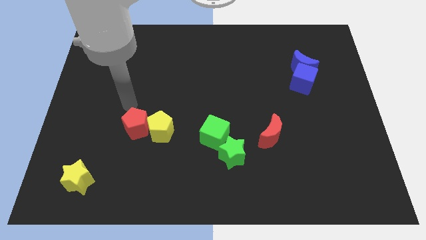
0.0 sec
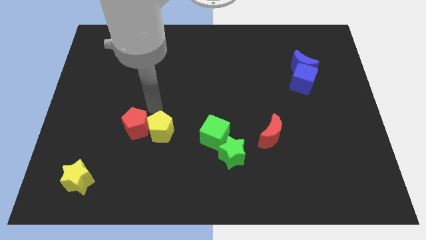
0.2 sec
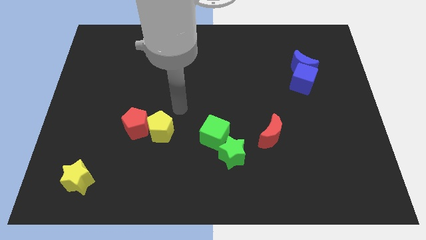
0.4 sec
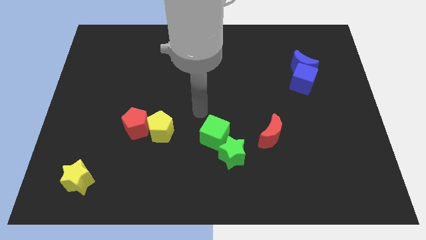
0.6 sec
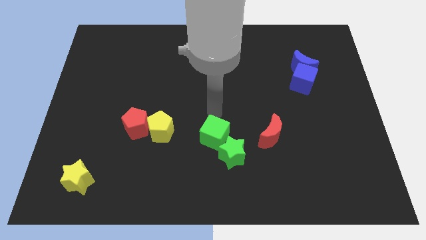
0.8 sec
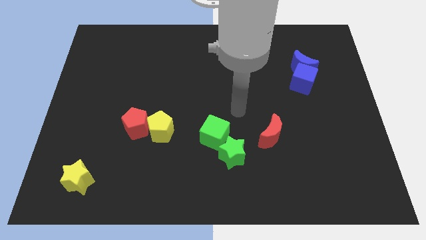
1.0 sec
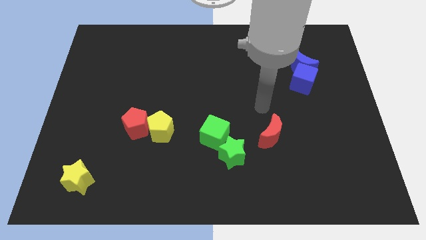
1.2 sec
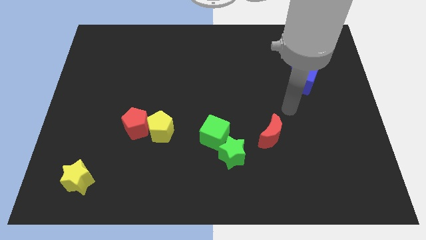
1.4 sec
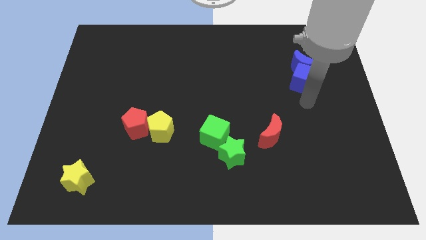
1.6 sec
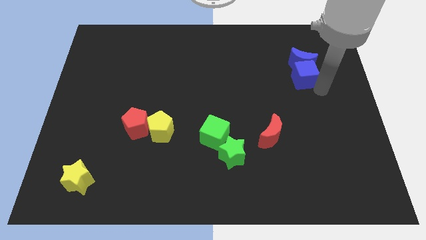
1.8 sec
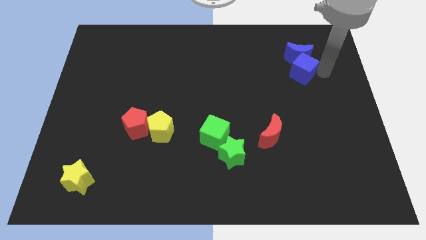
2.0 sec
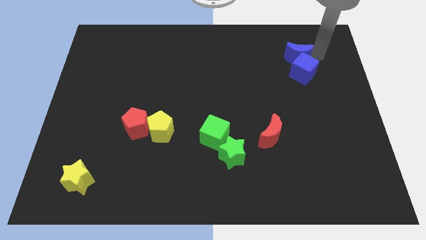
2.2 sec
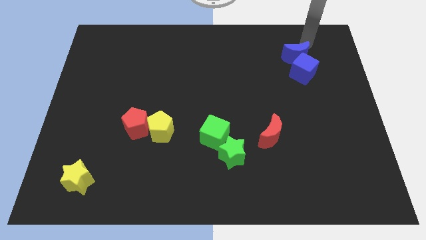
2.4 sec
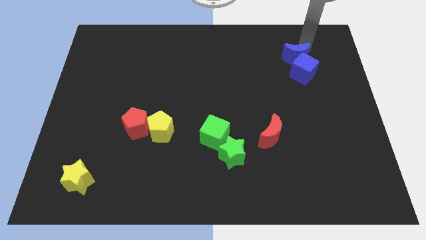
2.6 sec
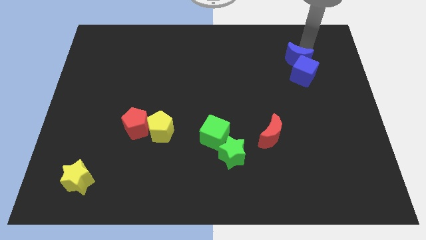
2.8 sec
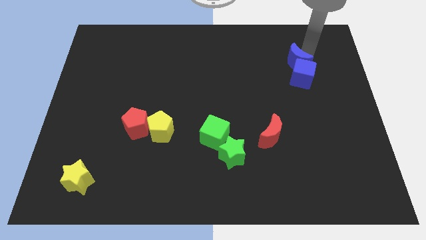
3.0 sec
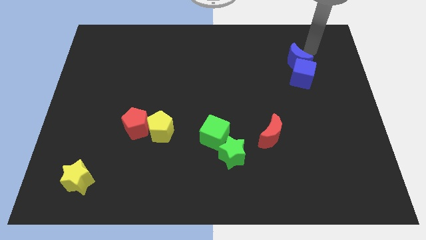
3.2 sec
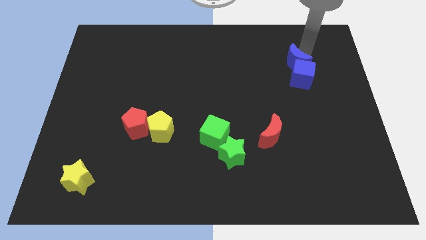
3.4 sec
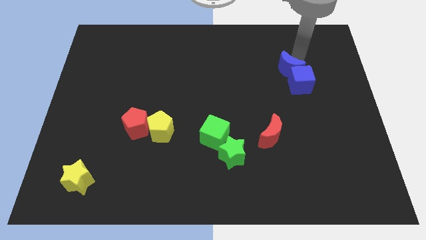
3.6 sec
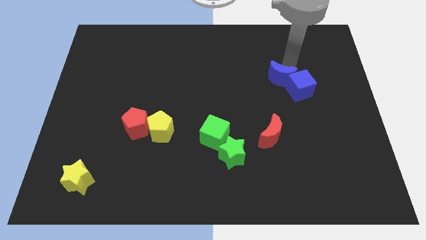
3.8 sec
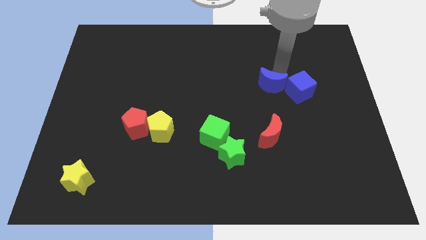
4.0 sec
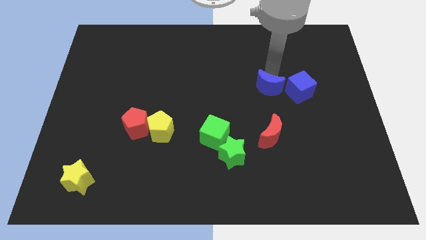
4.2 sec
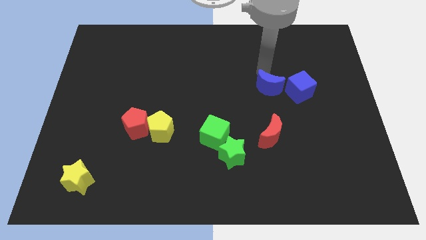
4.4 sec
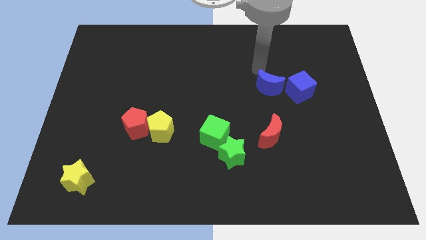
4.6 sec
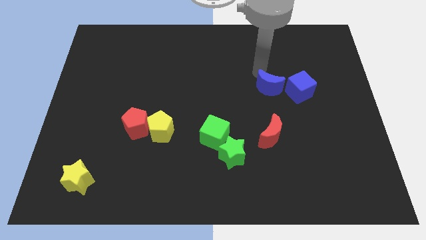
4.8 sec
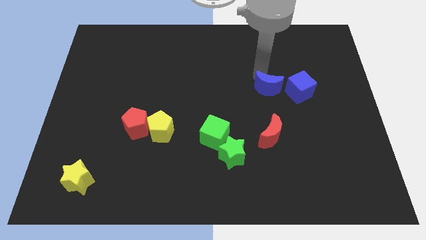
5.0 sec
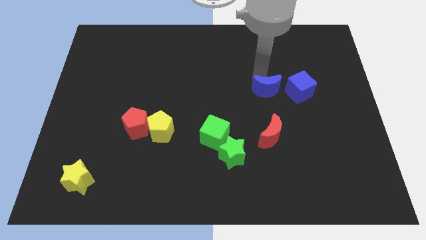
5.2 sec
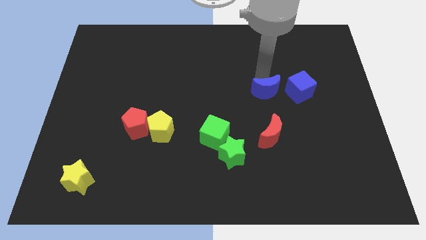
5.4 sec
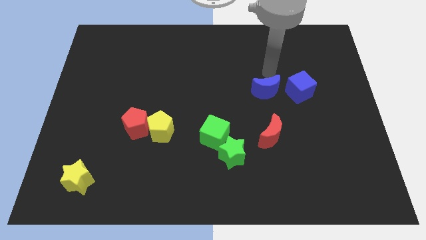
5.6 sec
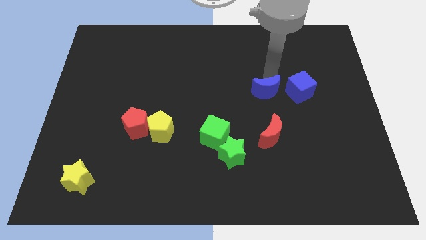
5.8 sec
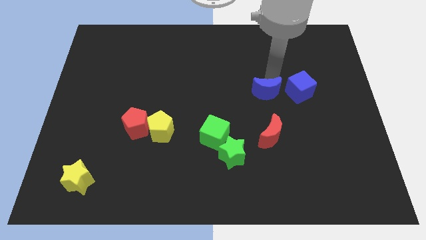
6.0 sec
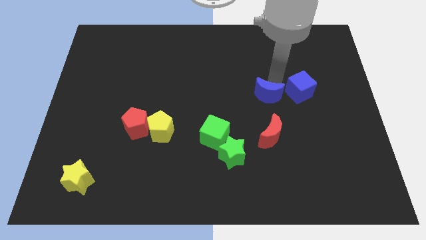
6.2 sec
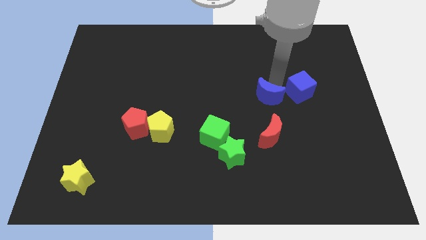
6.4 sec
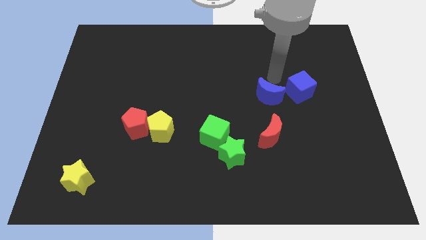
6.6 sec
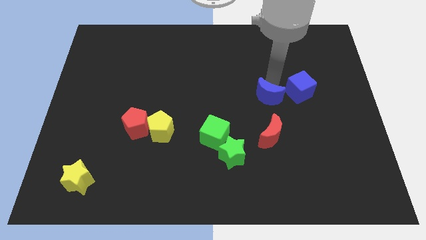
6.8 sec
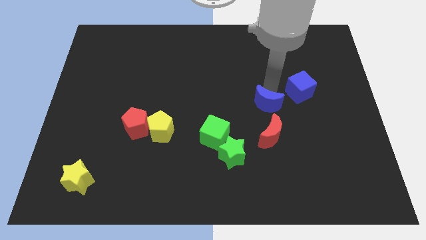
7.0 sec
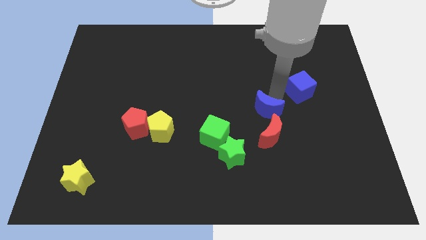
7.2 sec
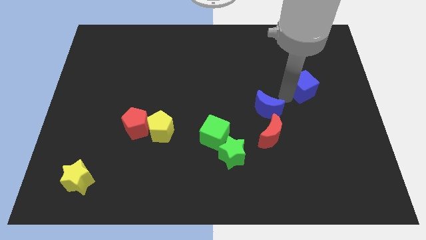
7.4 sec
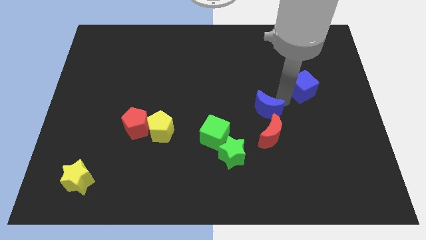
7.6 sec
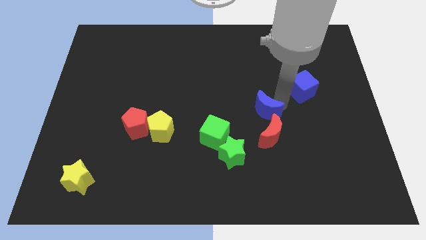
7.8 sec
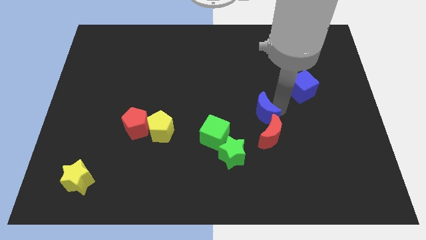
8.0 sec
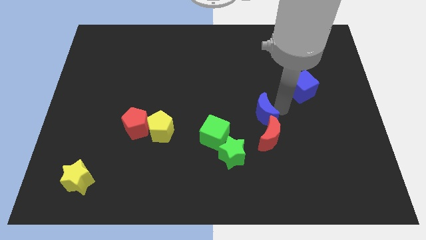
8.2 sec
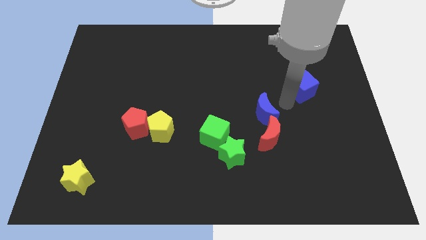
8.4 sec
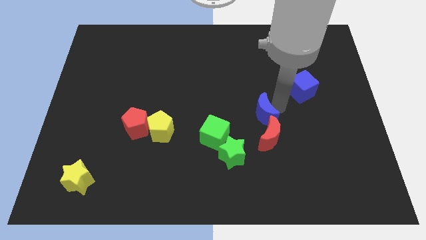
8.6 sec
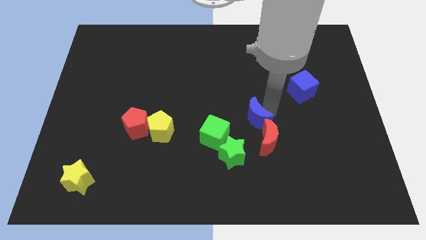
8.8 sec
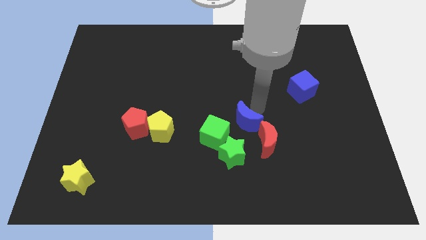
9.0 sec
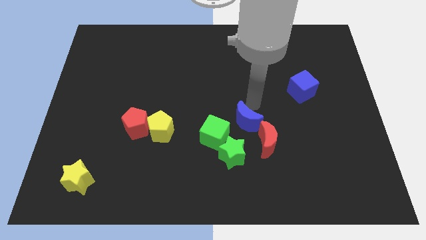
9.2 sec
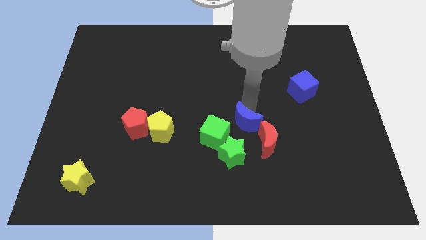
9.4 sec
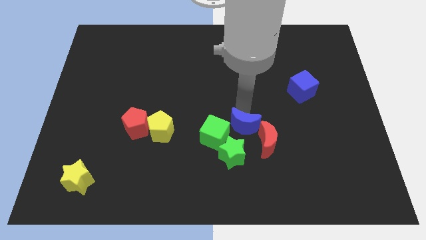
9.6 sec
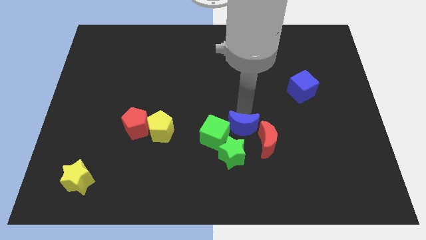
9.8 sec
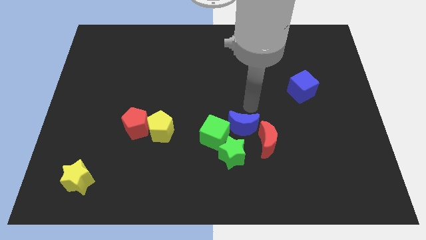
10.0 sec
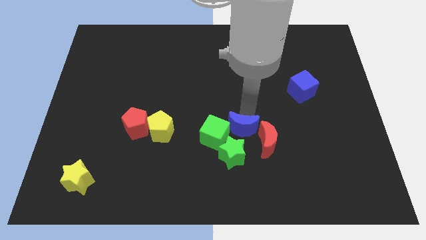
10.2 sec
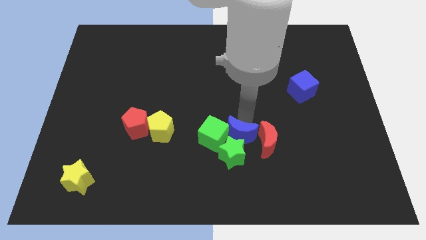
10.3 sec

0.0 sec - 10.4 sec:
put the blue moon to the green star

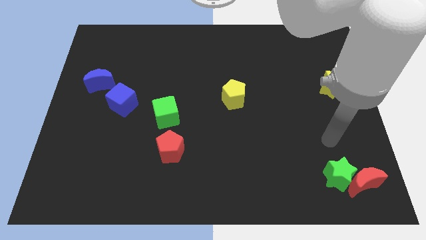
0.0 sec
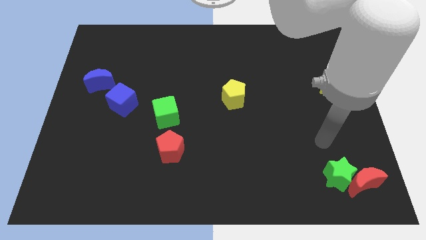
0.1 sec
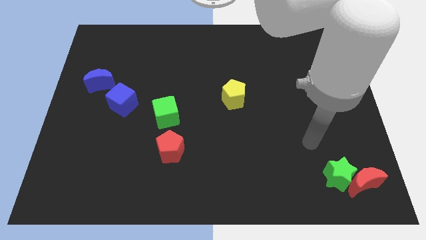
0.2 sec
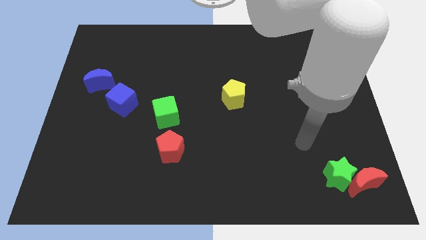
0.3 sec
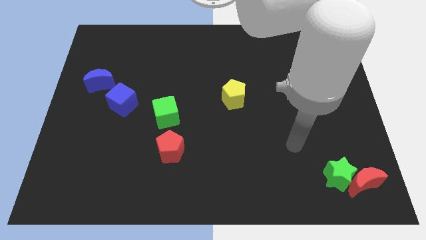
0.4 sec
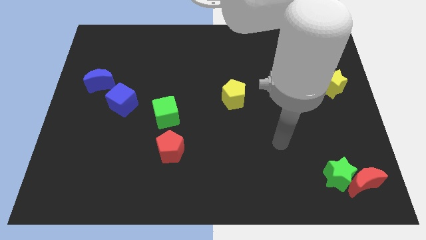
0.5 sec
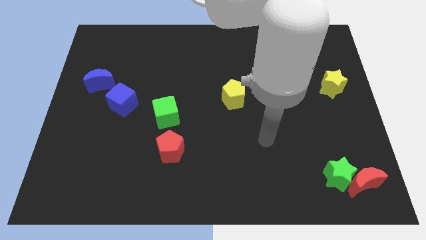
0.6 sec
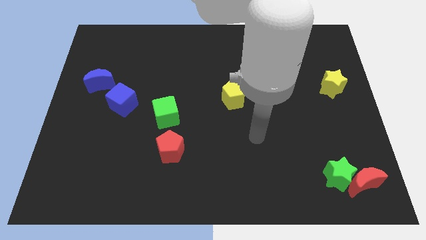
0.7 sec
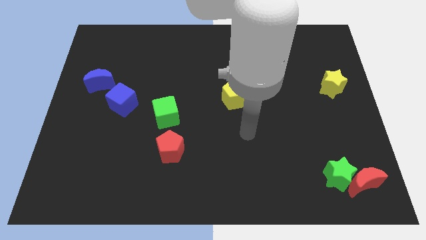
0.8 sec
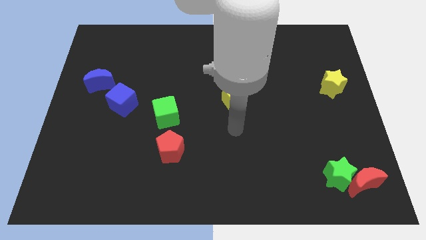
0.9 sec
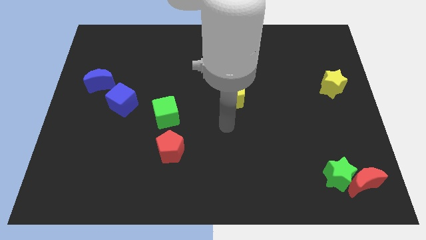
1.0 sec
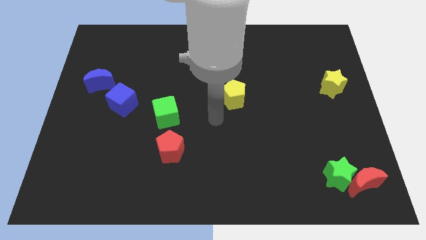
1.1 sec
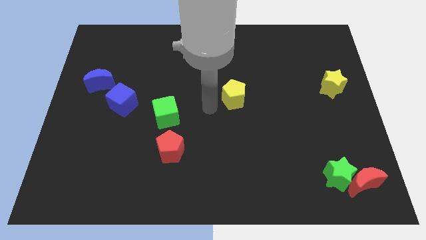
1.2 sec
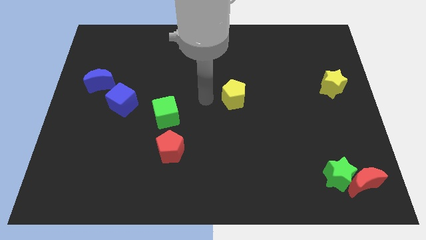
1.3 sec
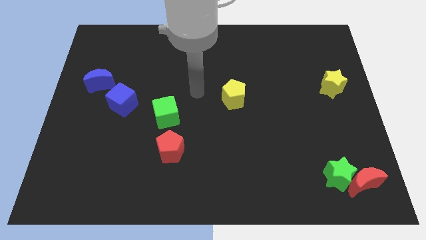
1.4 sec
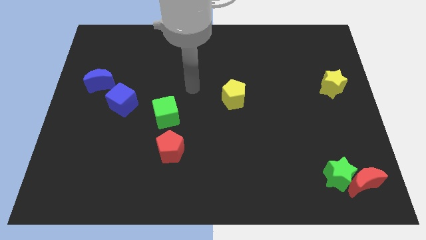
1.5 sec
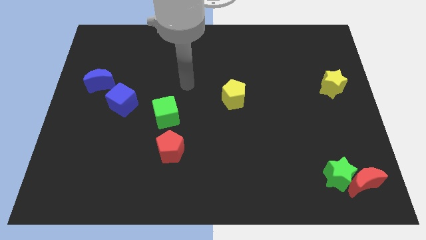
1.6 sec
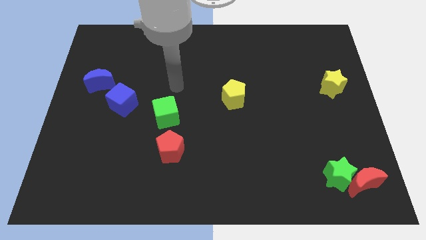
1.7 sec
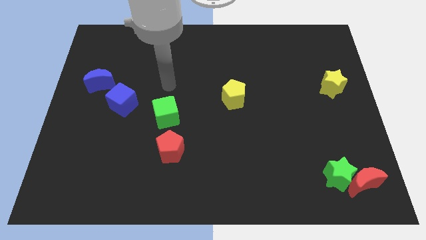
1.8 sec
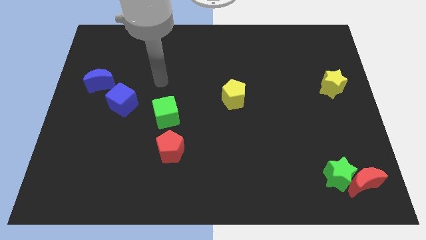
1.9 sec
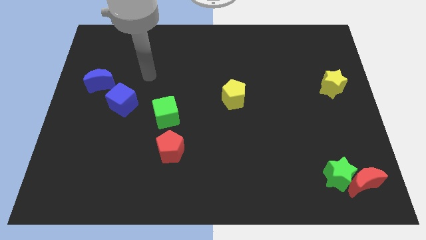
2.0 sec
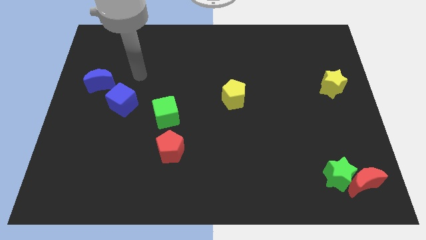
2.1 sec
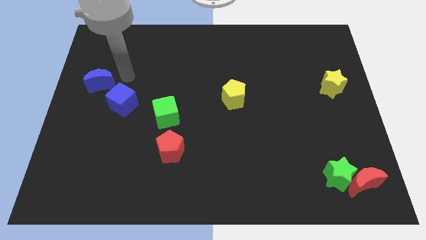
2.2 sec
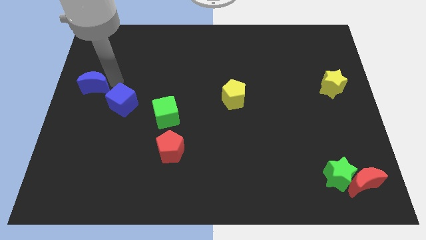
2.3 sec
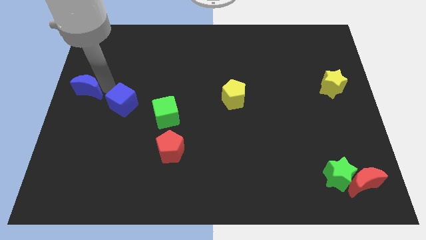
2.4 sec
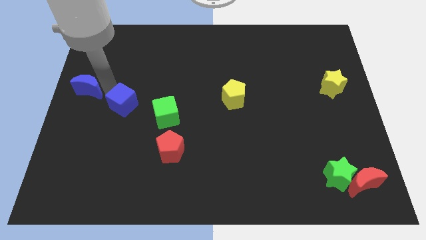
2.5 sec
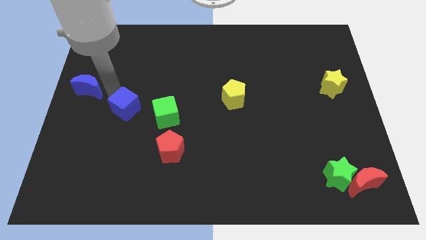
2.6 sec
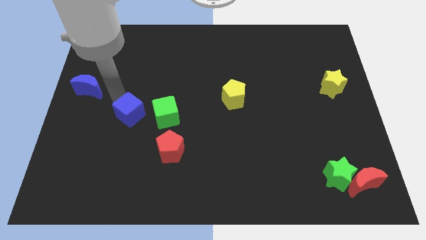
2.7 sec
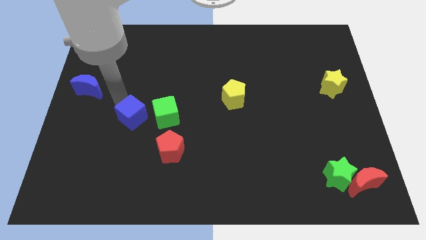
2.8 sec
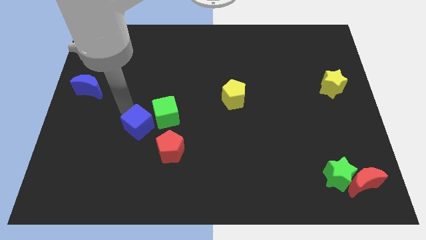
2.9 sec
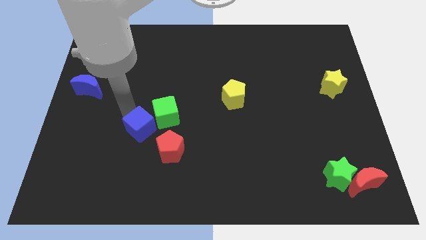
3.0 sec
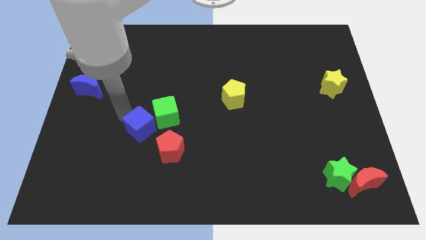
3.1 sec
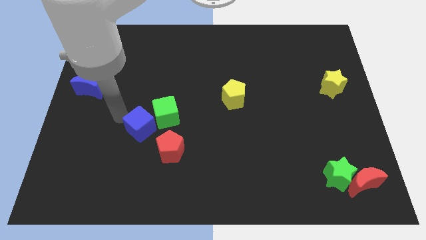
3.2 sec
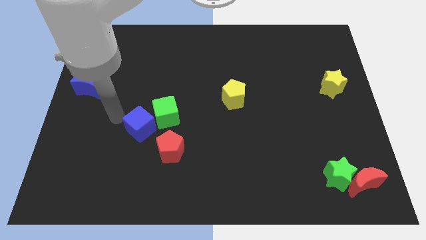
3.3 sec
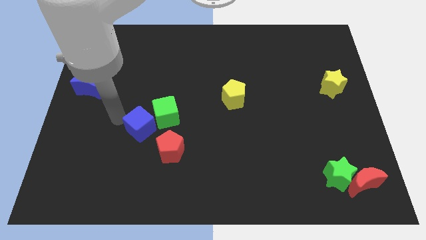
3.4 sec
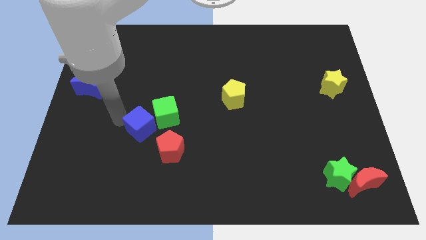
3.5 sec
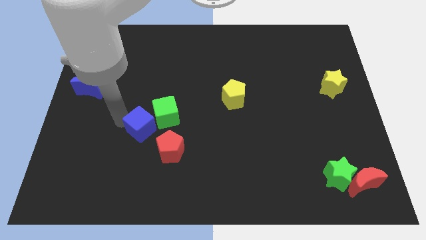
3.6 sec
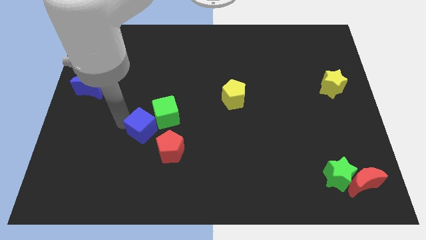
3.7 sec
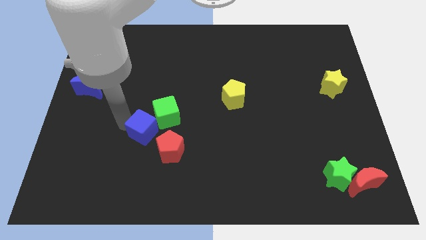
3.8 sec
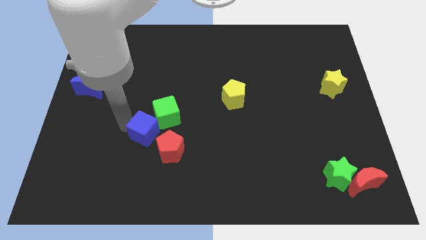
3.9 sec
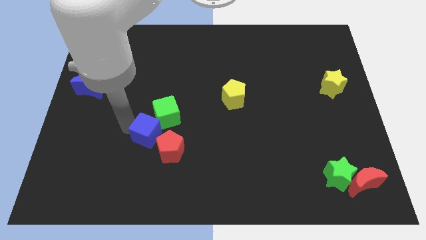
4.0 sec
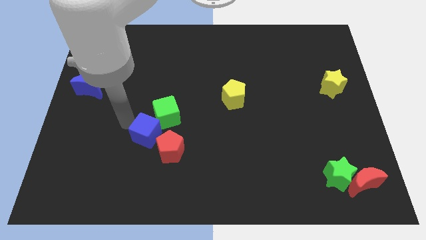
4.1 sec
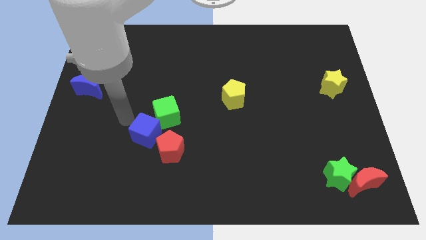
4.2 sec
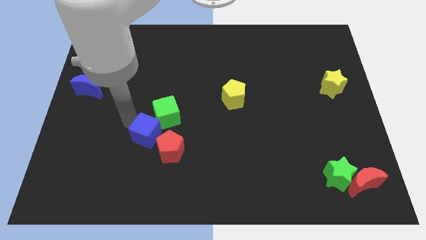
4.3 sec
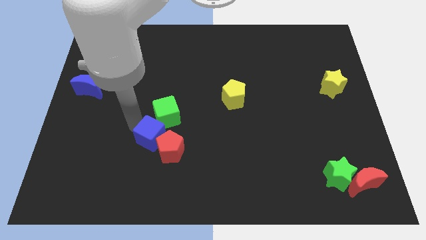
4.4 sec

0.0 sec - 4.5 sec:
slide the blue cube towards the red pentagon
